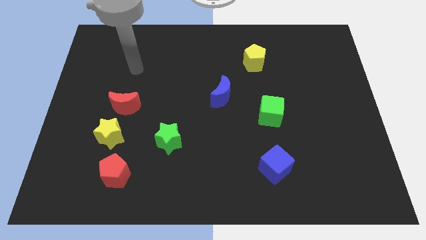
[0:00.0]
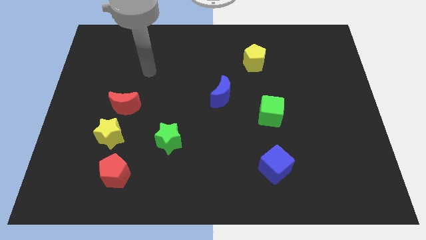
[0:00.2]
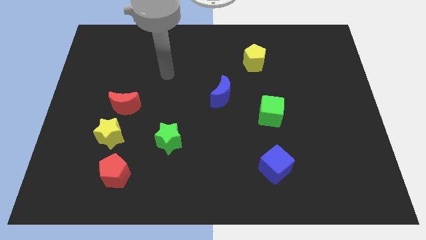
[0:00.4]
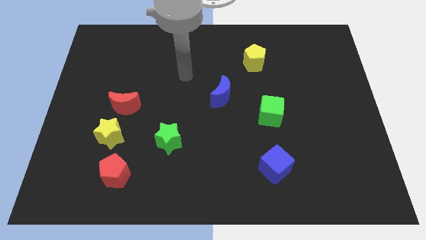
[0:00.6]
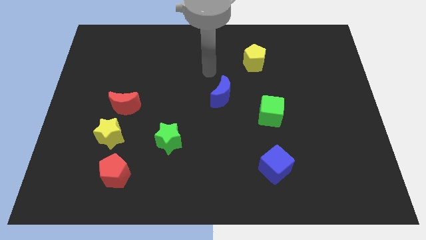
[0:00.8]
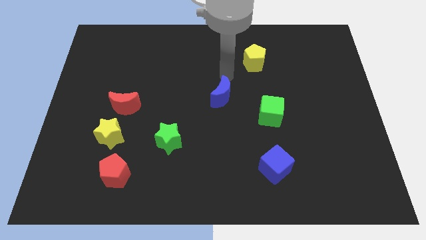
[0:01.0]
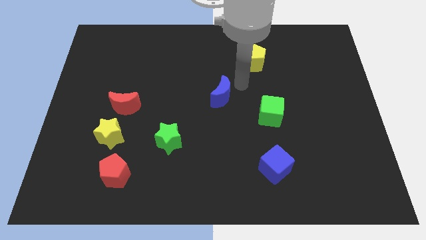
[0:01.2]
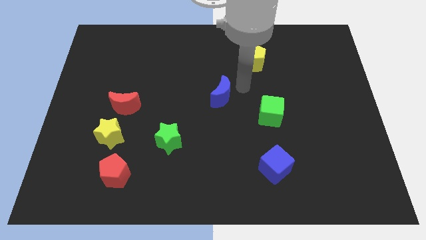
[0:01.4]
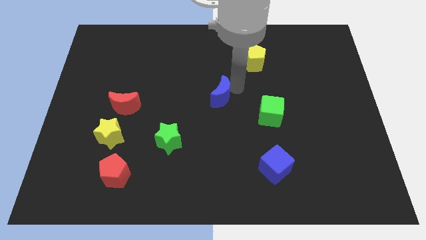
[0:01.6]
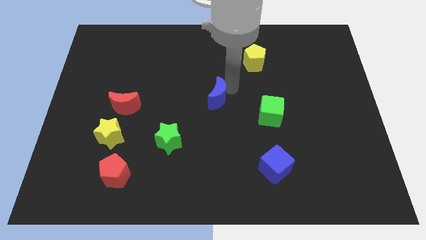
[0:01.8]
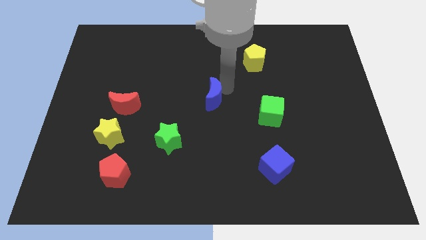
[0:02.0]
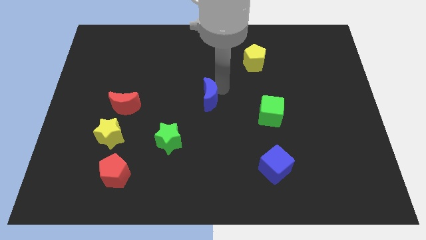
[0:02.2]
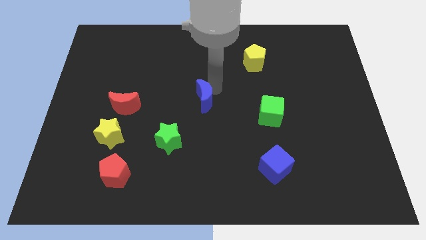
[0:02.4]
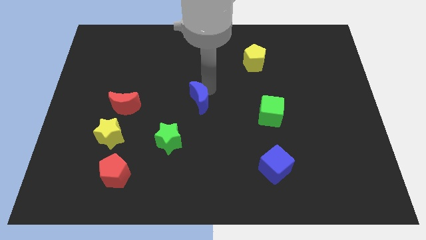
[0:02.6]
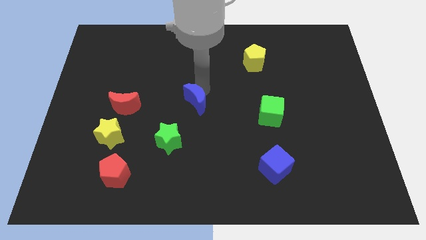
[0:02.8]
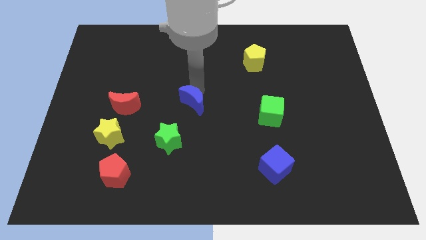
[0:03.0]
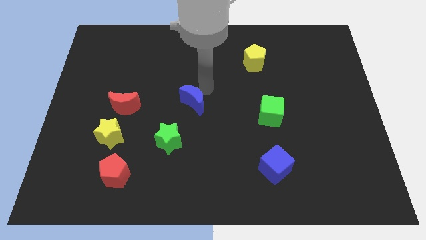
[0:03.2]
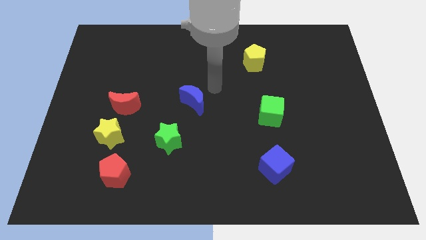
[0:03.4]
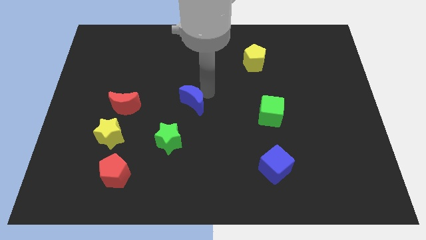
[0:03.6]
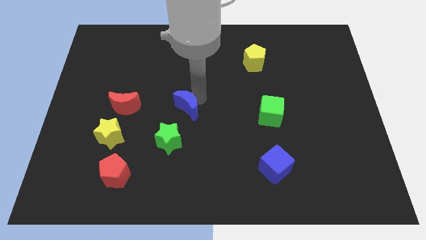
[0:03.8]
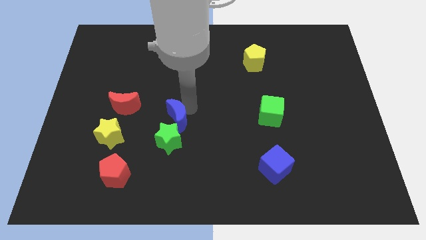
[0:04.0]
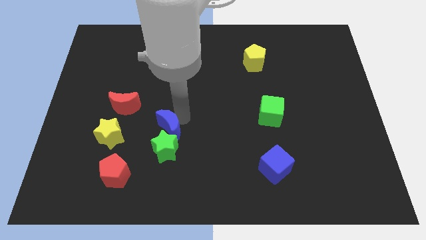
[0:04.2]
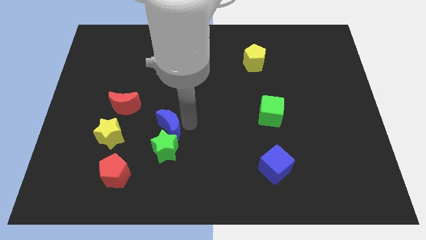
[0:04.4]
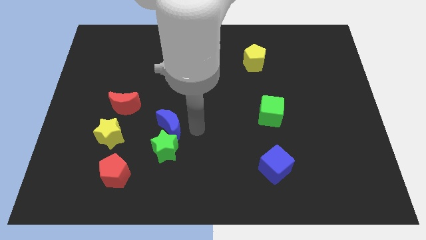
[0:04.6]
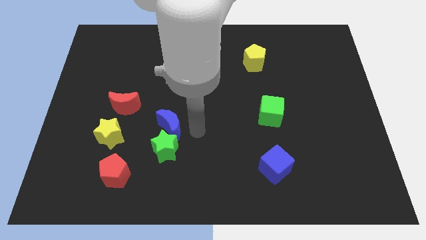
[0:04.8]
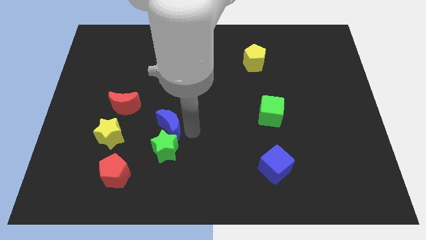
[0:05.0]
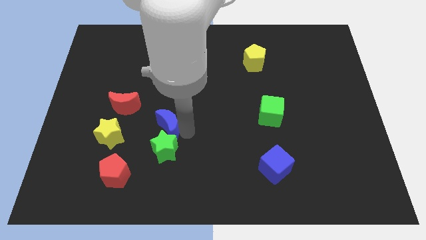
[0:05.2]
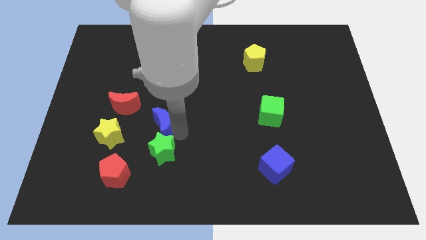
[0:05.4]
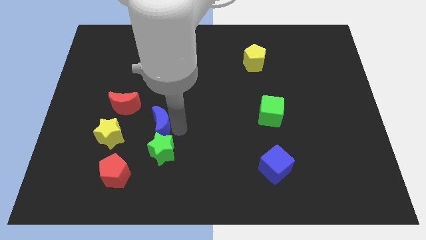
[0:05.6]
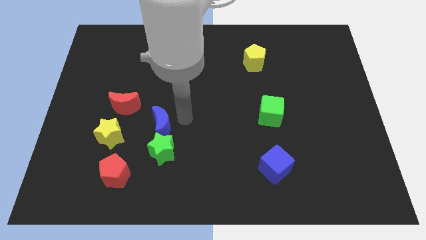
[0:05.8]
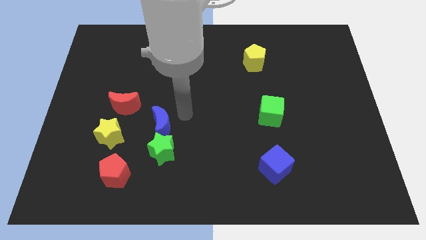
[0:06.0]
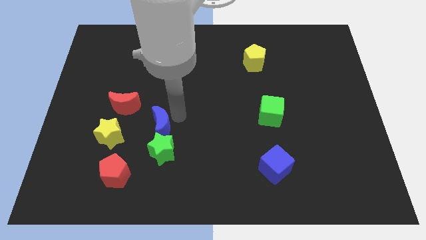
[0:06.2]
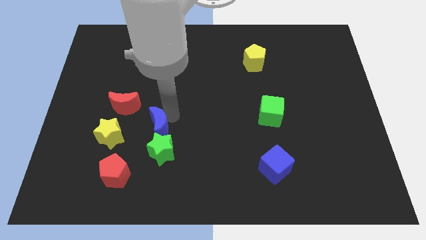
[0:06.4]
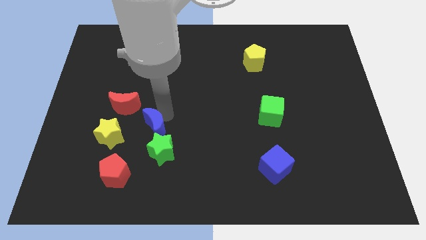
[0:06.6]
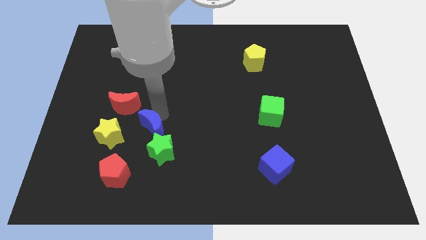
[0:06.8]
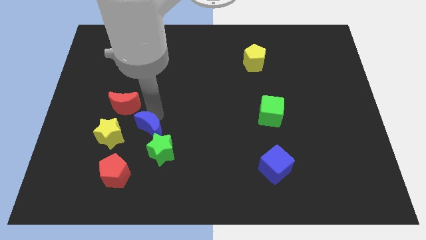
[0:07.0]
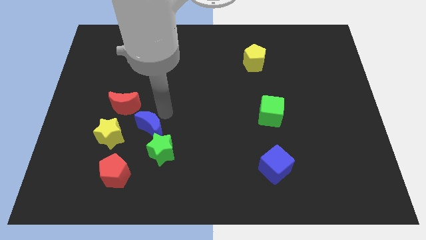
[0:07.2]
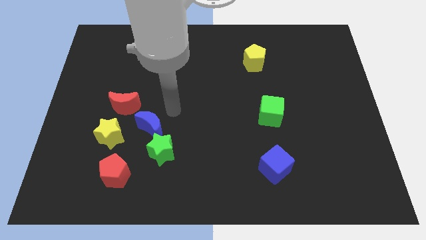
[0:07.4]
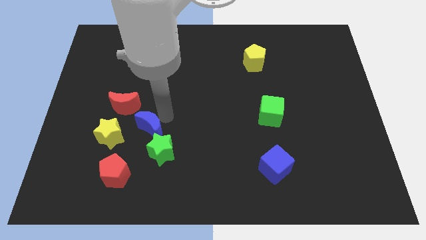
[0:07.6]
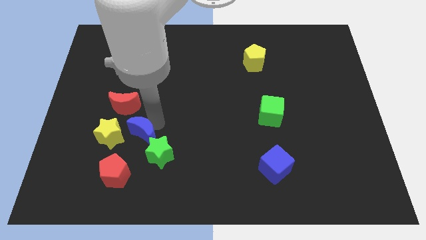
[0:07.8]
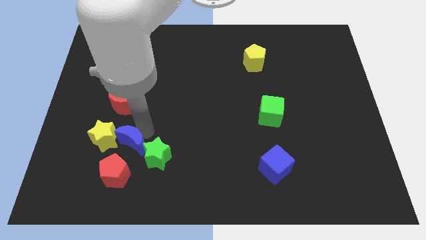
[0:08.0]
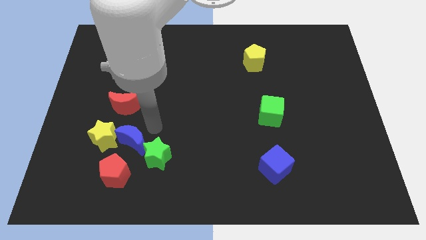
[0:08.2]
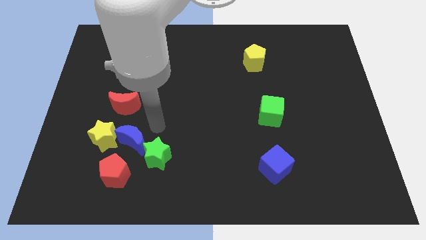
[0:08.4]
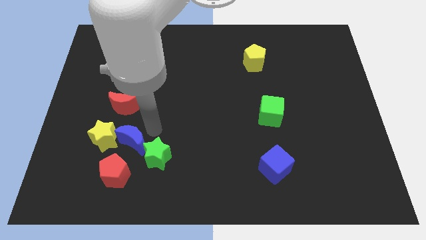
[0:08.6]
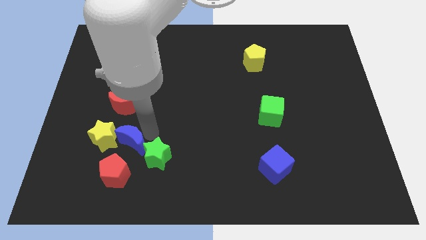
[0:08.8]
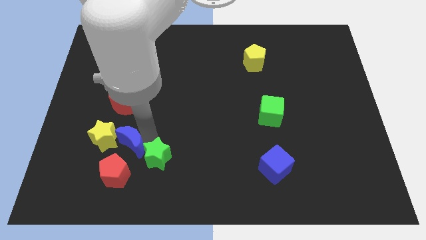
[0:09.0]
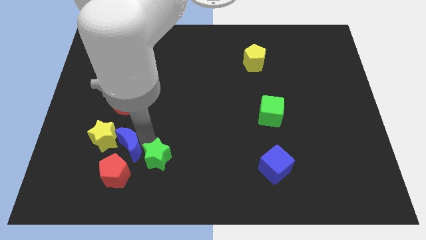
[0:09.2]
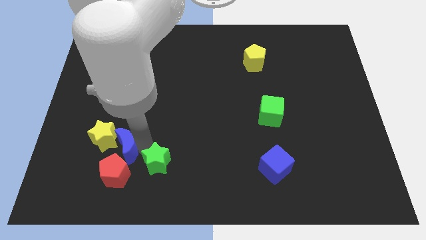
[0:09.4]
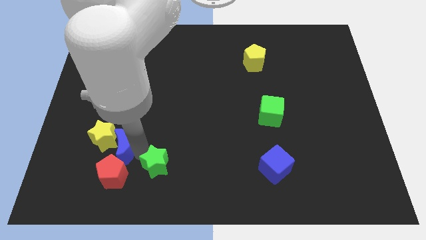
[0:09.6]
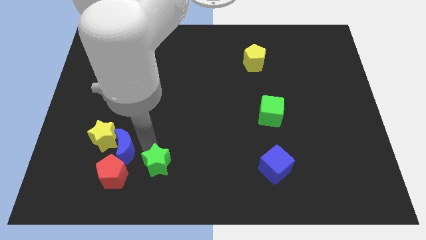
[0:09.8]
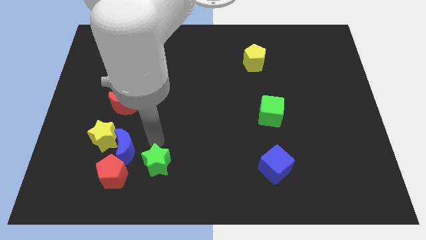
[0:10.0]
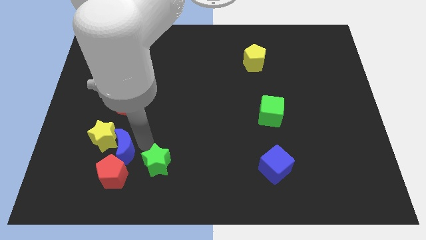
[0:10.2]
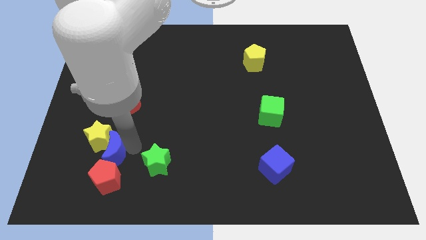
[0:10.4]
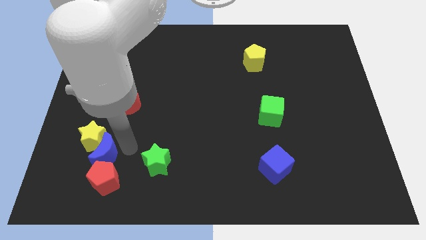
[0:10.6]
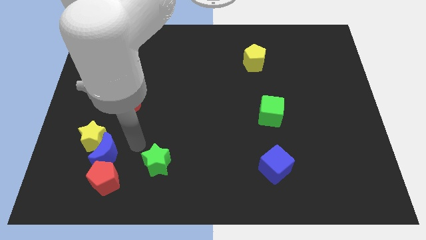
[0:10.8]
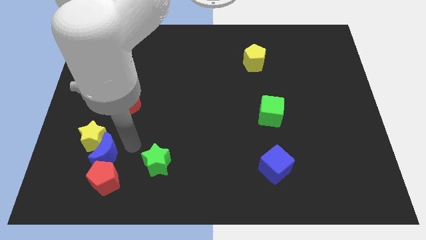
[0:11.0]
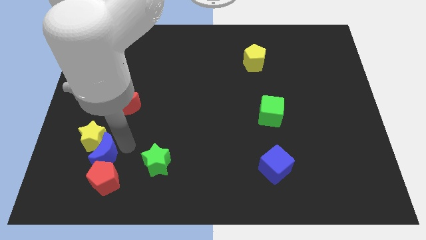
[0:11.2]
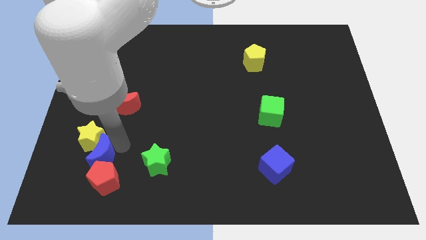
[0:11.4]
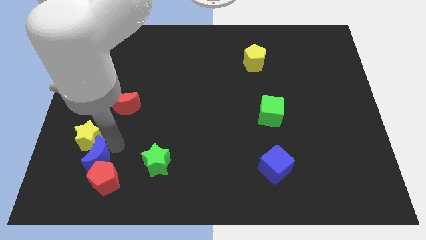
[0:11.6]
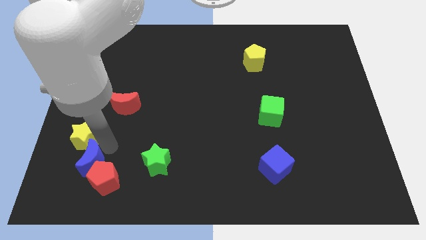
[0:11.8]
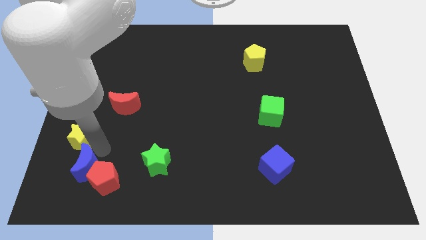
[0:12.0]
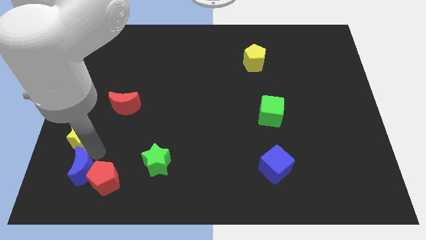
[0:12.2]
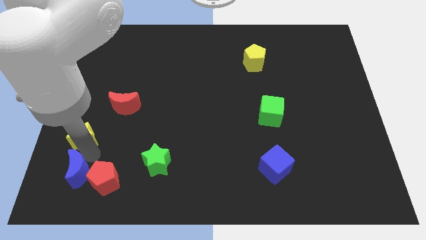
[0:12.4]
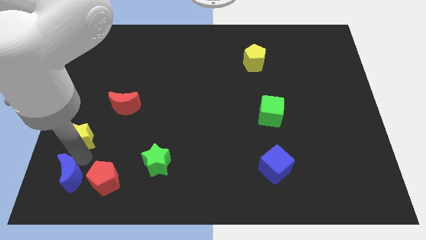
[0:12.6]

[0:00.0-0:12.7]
move the blue moon to the bottom left corner

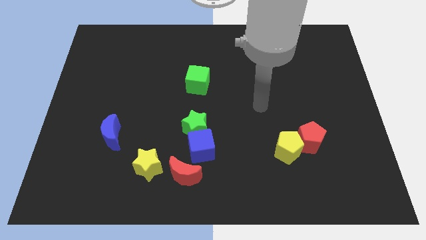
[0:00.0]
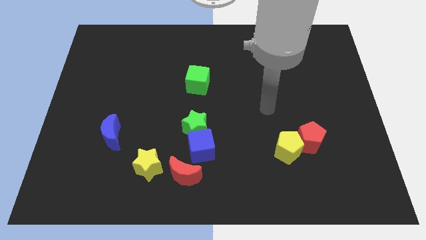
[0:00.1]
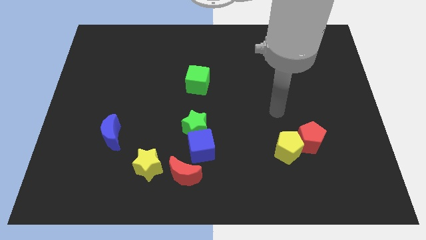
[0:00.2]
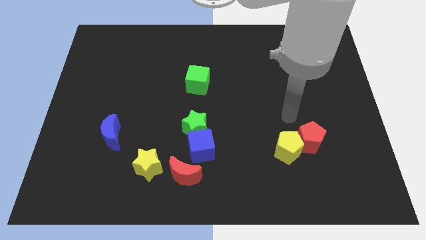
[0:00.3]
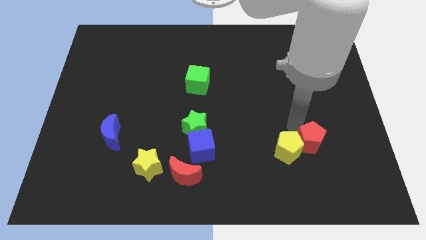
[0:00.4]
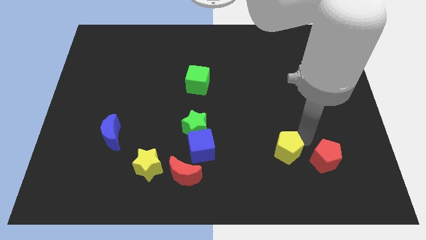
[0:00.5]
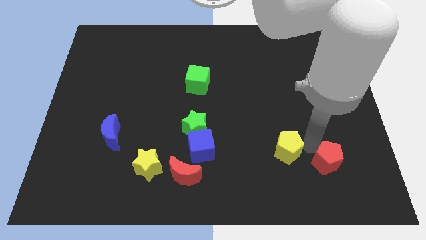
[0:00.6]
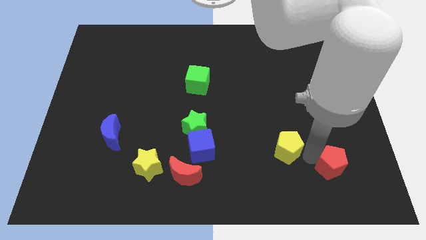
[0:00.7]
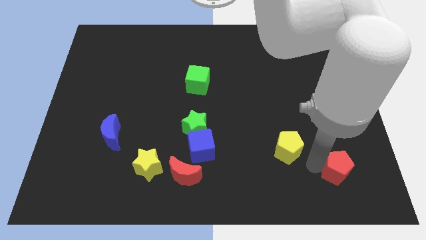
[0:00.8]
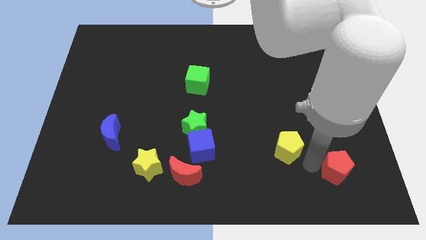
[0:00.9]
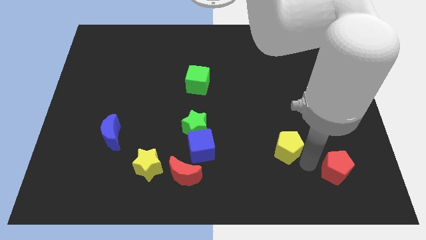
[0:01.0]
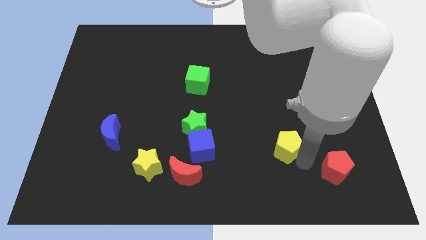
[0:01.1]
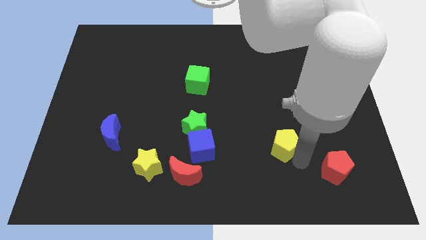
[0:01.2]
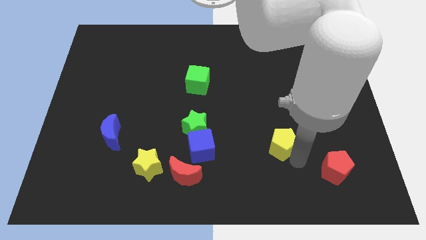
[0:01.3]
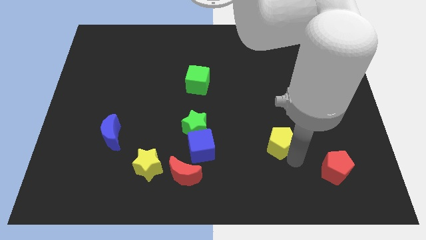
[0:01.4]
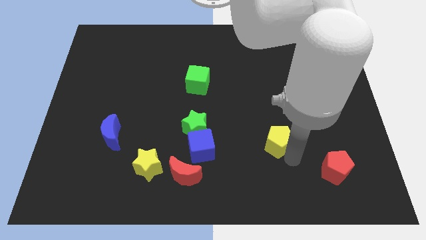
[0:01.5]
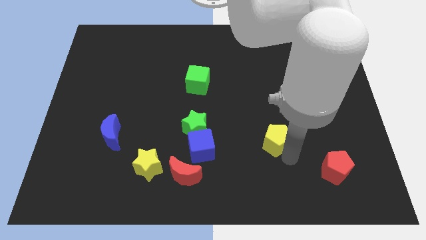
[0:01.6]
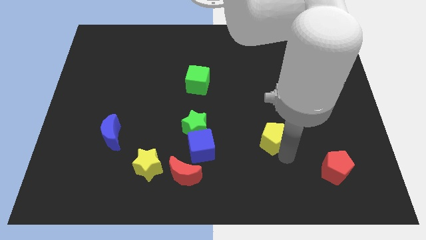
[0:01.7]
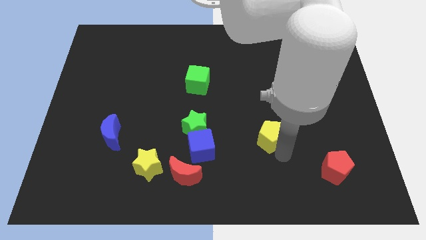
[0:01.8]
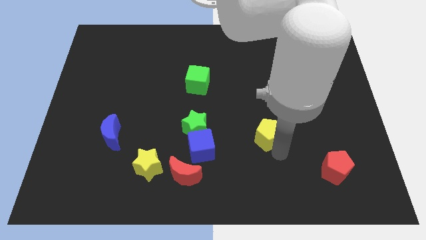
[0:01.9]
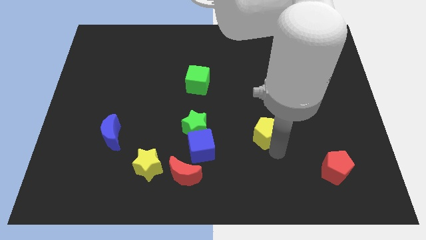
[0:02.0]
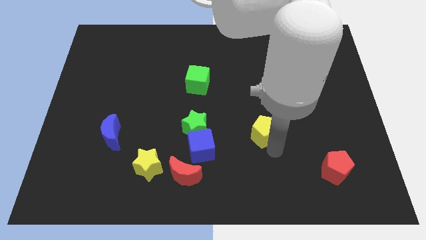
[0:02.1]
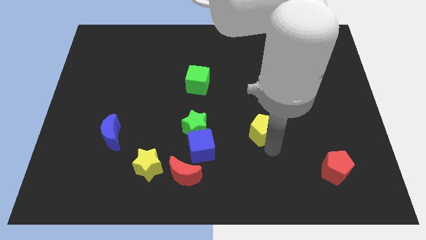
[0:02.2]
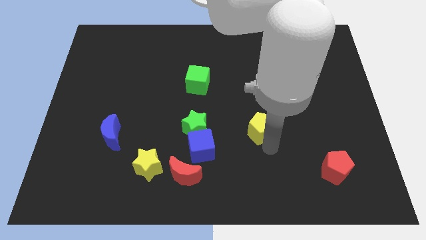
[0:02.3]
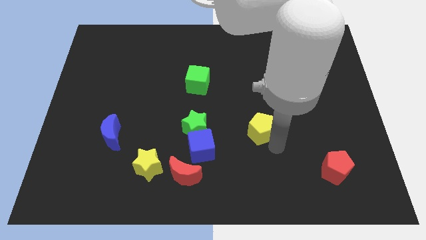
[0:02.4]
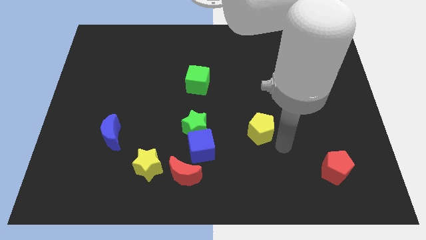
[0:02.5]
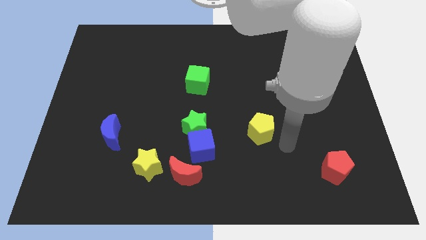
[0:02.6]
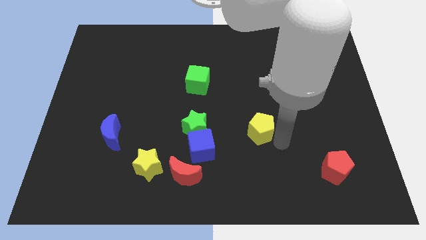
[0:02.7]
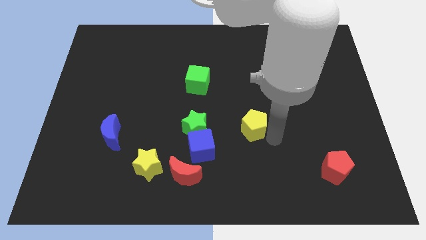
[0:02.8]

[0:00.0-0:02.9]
slide the yellow pentagon to the center
